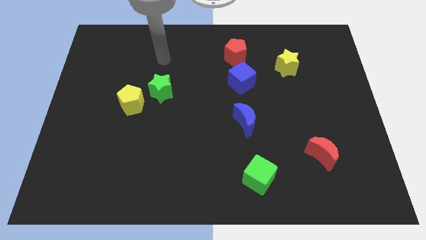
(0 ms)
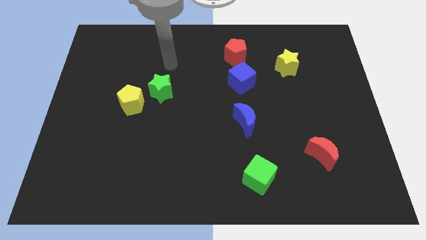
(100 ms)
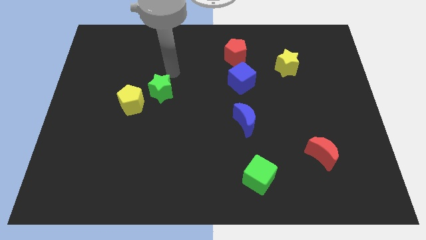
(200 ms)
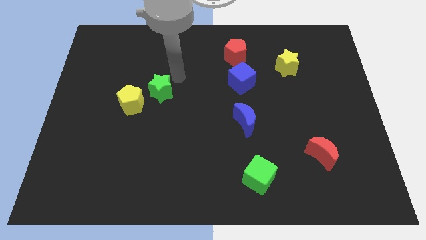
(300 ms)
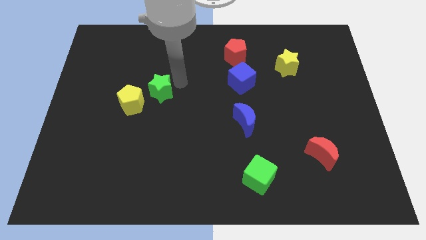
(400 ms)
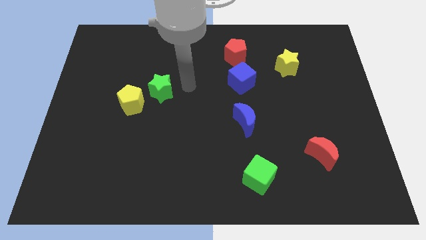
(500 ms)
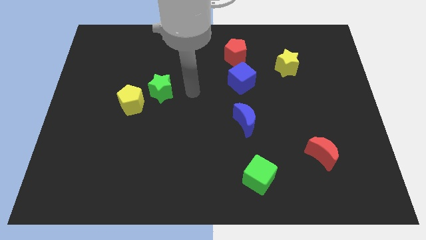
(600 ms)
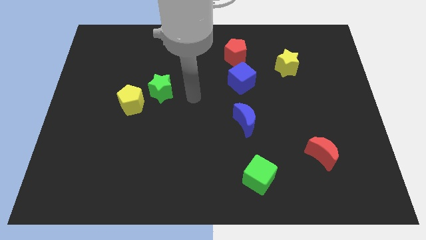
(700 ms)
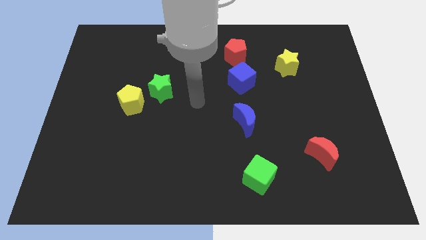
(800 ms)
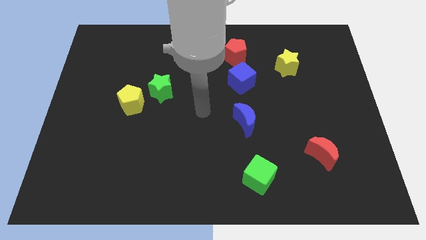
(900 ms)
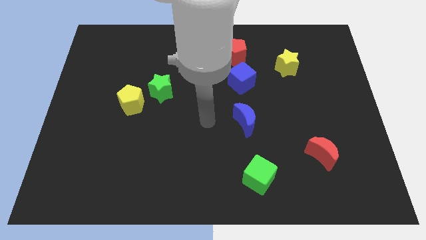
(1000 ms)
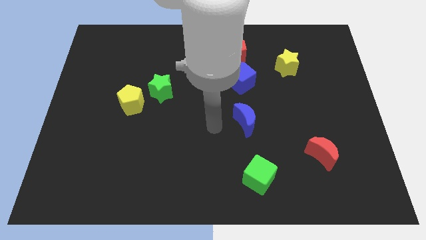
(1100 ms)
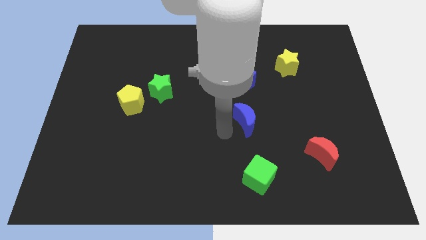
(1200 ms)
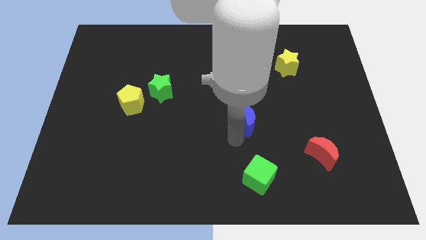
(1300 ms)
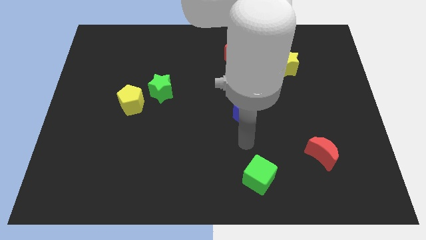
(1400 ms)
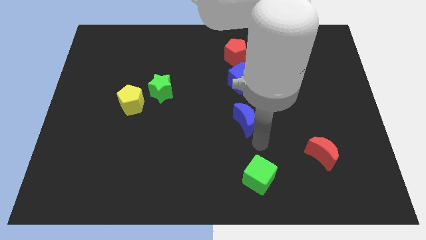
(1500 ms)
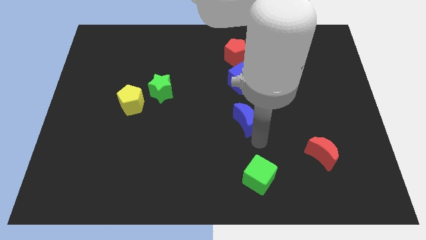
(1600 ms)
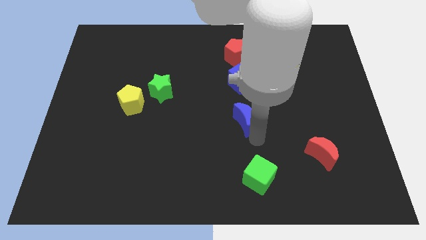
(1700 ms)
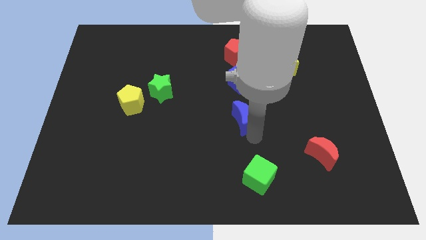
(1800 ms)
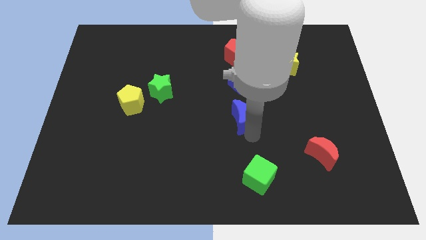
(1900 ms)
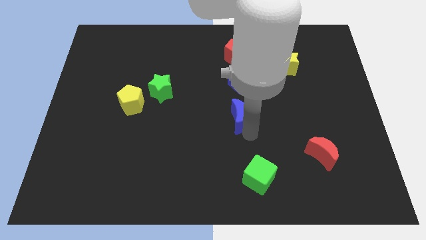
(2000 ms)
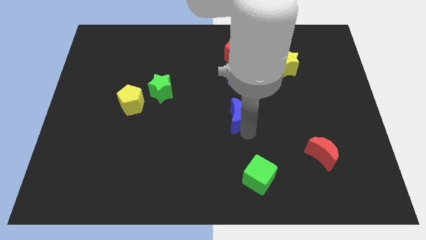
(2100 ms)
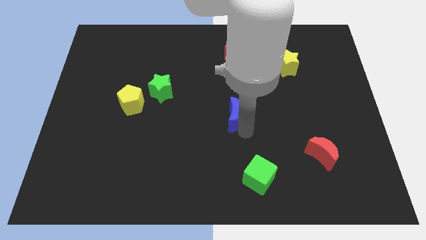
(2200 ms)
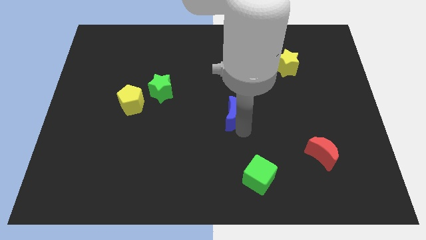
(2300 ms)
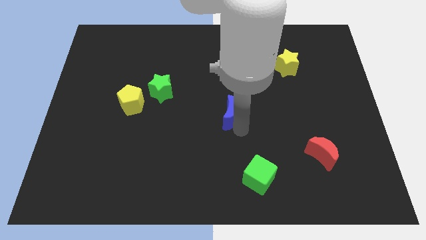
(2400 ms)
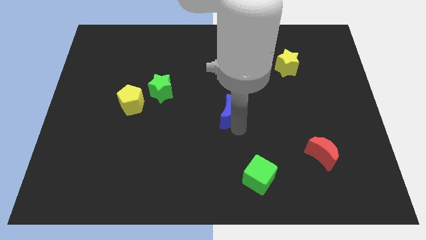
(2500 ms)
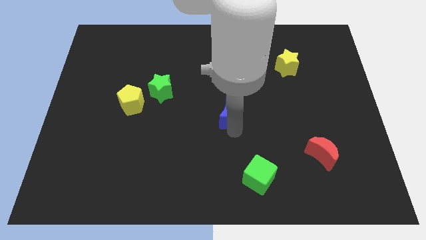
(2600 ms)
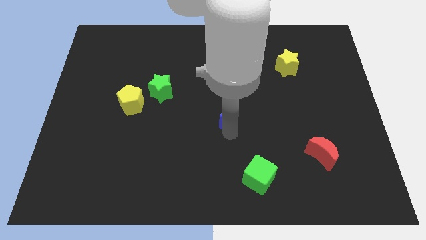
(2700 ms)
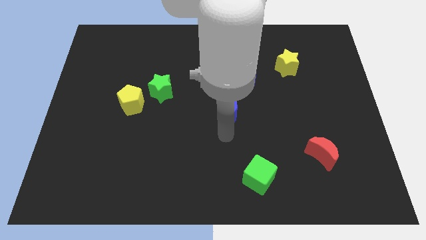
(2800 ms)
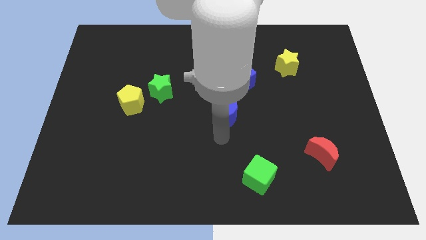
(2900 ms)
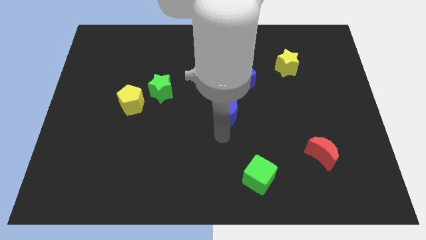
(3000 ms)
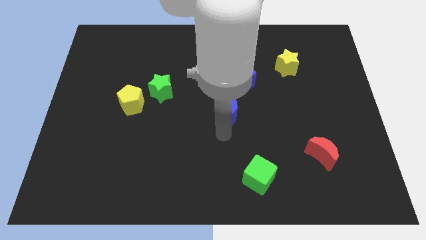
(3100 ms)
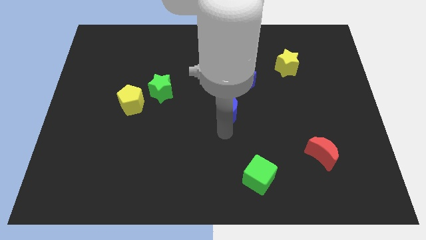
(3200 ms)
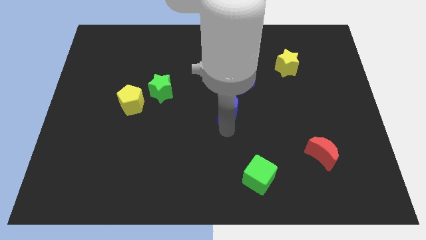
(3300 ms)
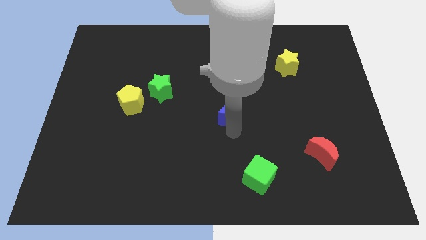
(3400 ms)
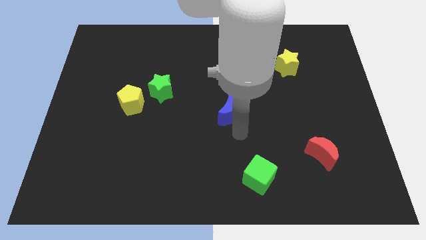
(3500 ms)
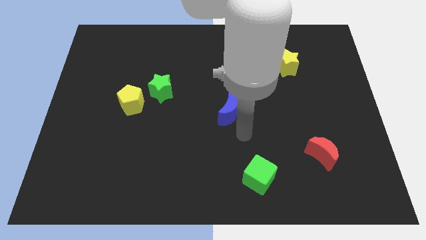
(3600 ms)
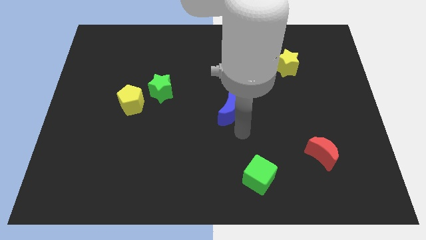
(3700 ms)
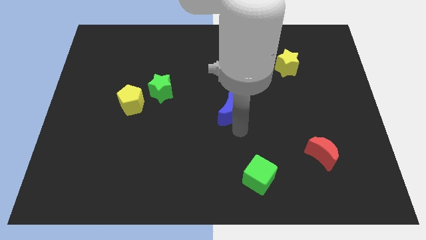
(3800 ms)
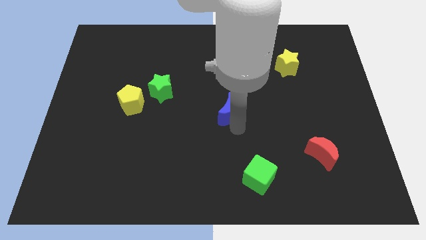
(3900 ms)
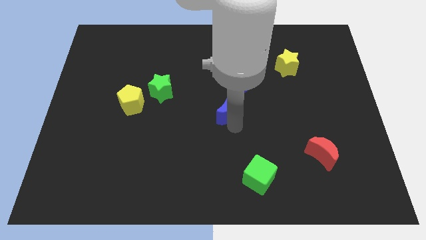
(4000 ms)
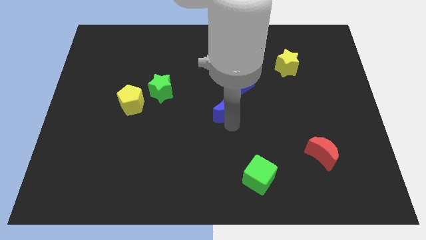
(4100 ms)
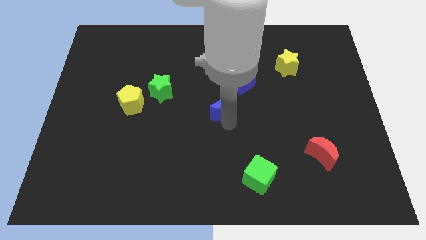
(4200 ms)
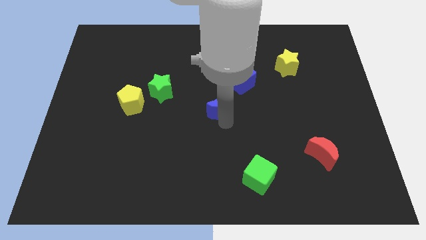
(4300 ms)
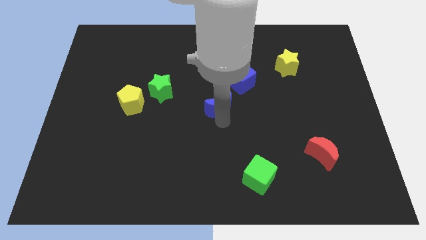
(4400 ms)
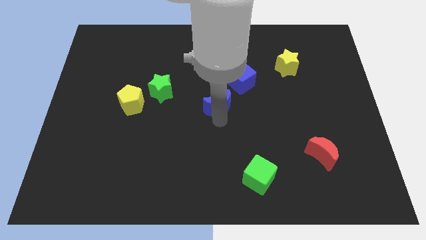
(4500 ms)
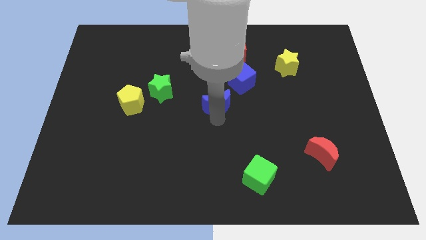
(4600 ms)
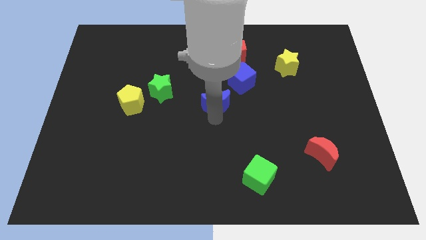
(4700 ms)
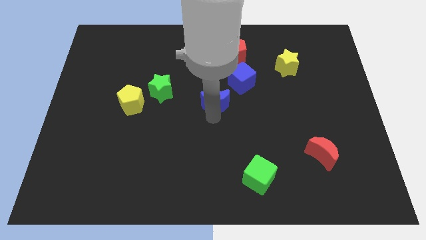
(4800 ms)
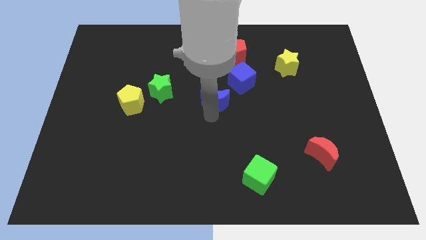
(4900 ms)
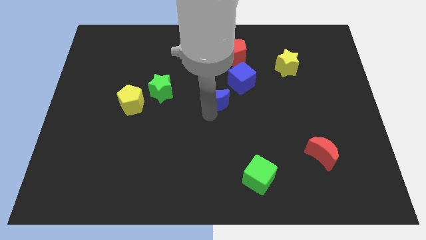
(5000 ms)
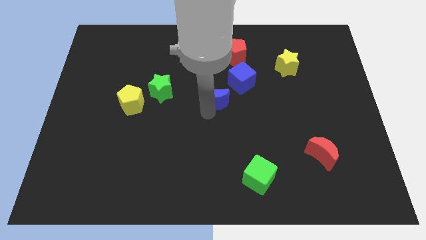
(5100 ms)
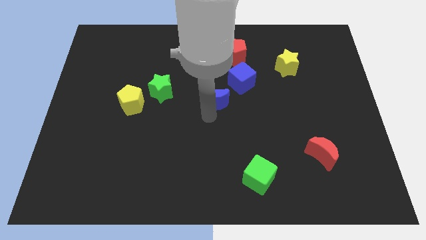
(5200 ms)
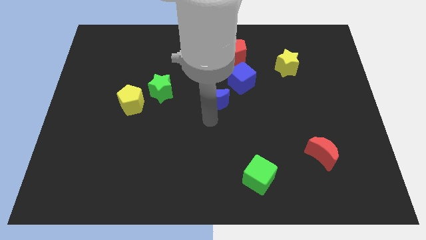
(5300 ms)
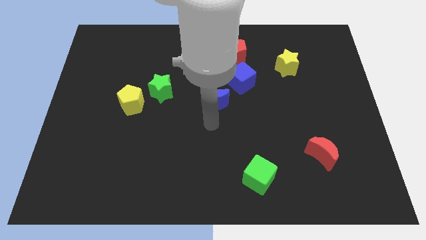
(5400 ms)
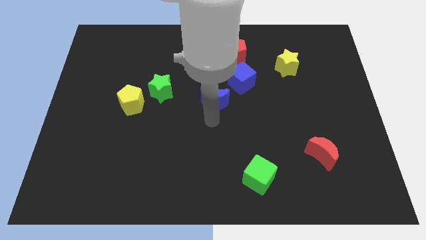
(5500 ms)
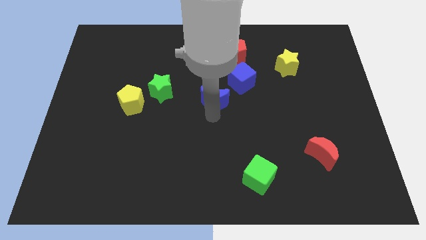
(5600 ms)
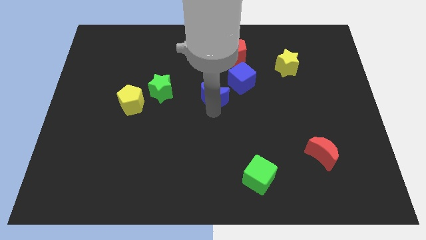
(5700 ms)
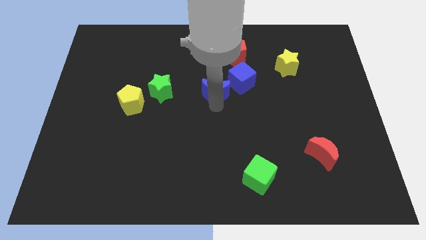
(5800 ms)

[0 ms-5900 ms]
slide the blue moon left of the blue cube
